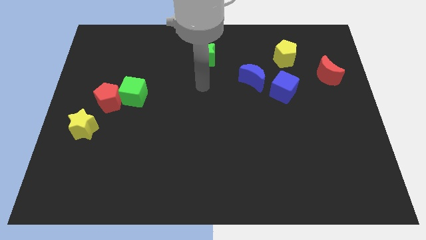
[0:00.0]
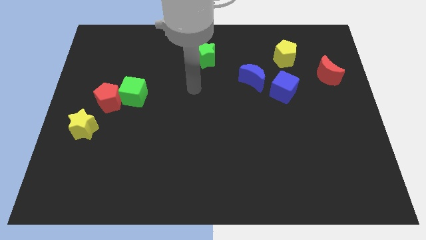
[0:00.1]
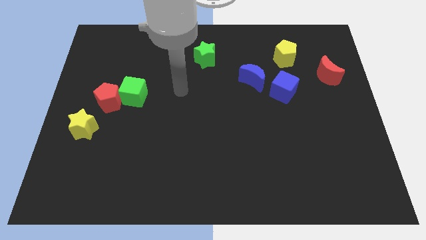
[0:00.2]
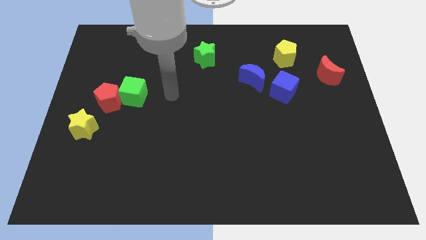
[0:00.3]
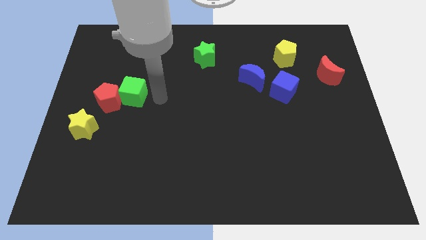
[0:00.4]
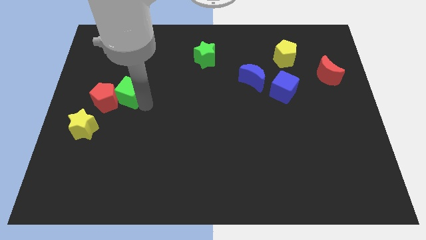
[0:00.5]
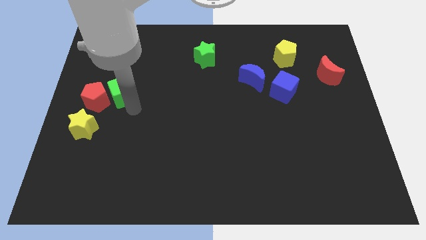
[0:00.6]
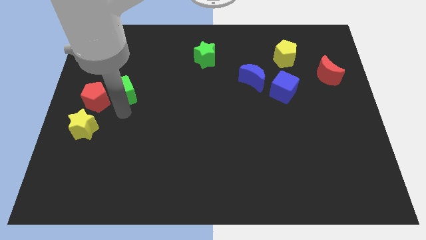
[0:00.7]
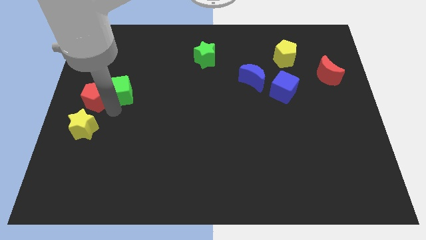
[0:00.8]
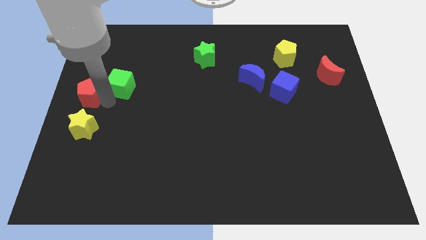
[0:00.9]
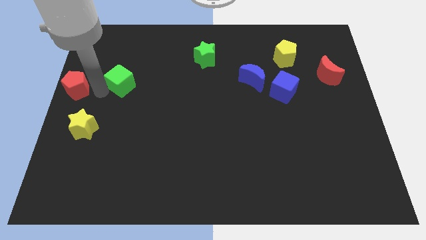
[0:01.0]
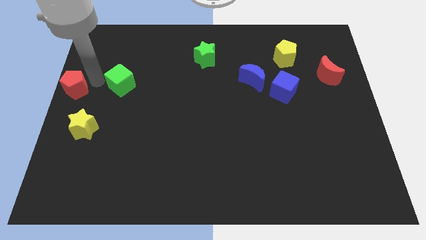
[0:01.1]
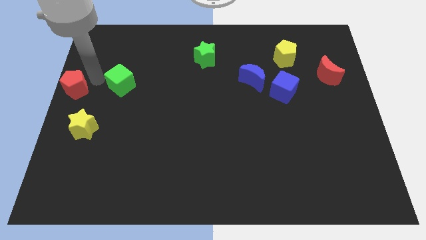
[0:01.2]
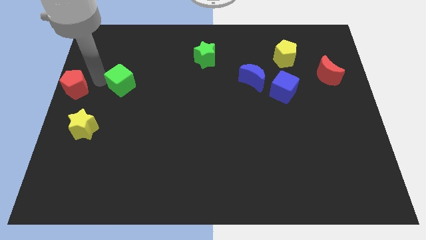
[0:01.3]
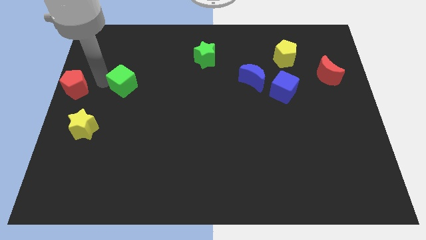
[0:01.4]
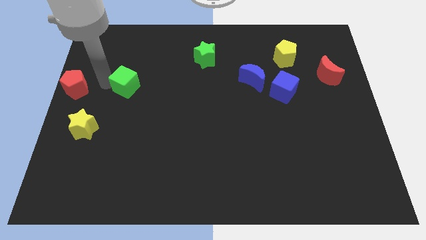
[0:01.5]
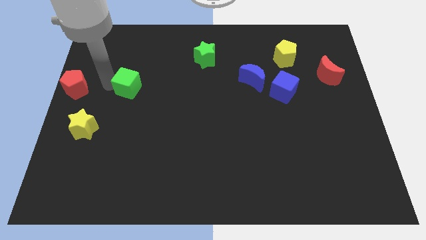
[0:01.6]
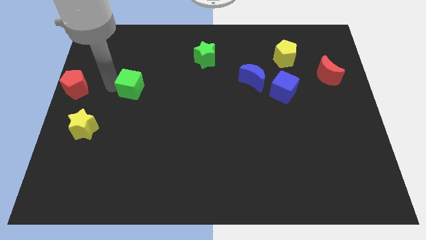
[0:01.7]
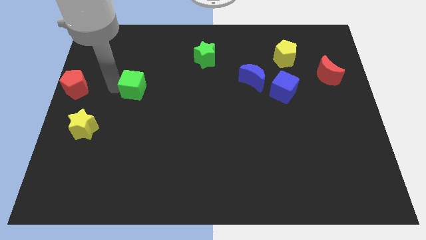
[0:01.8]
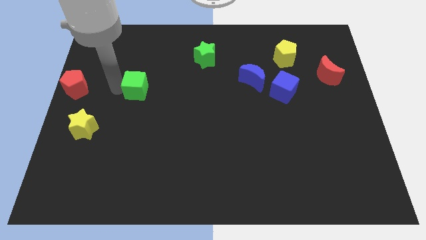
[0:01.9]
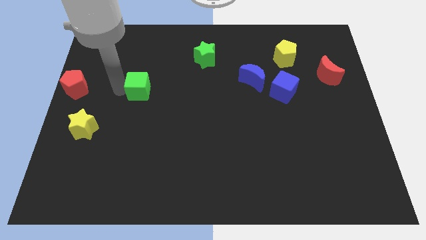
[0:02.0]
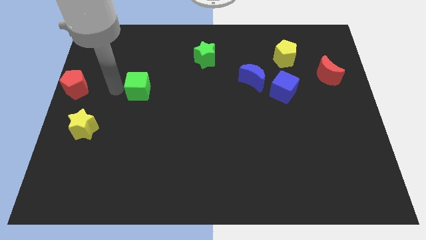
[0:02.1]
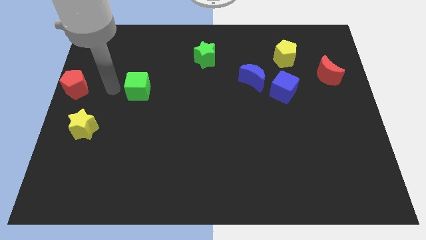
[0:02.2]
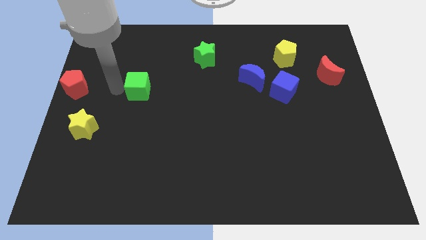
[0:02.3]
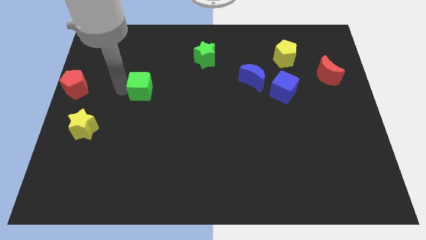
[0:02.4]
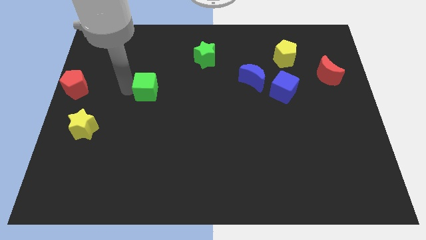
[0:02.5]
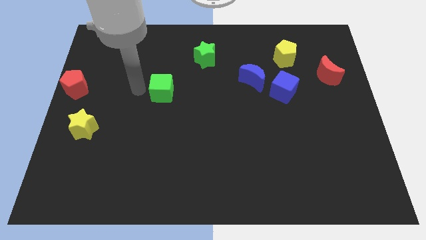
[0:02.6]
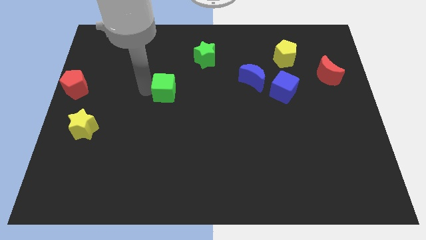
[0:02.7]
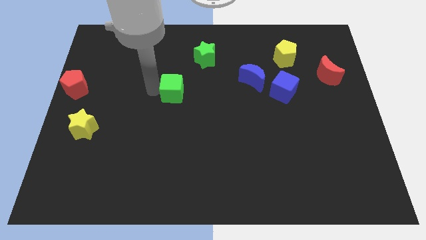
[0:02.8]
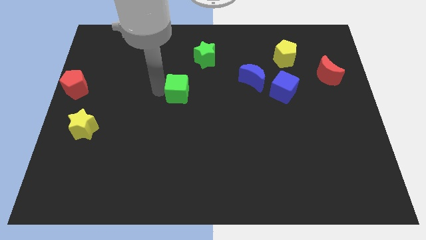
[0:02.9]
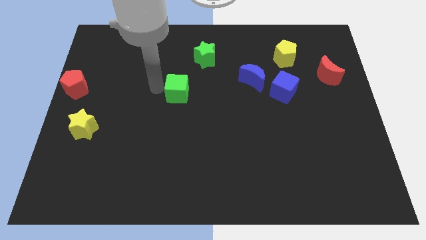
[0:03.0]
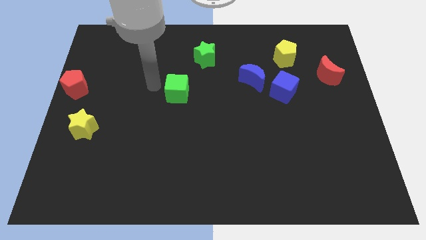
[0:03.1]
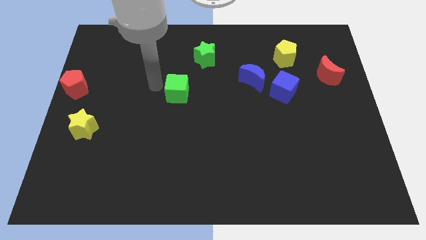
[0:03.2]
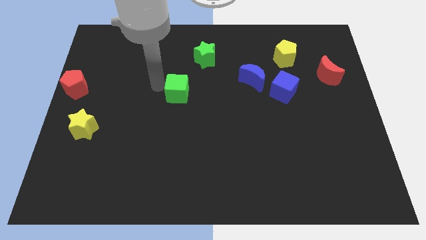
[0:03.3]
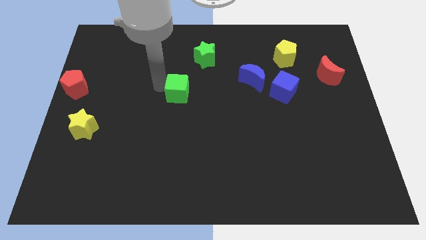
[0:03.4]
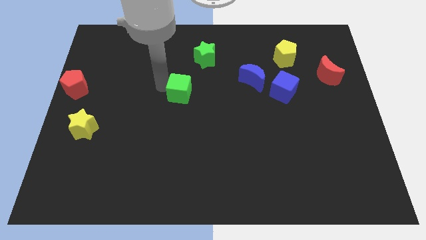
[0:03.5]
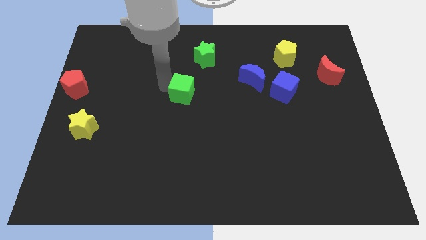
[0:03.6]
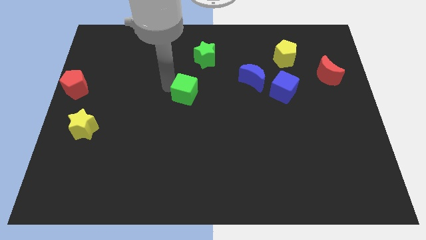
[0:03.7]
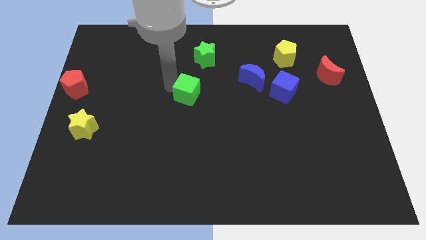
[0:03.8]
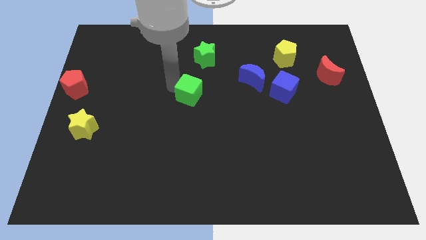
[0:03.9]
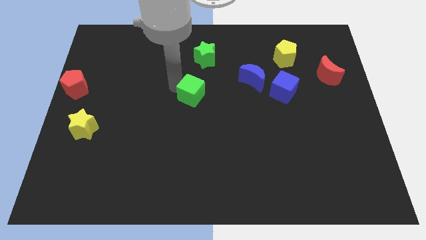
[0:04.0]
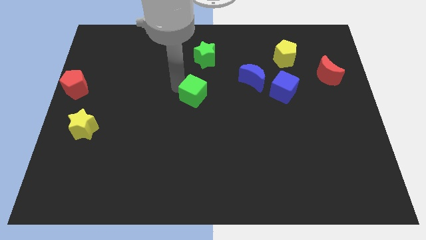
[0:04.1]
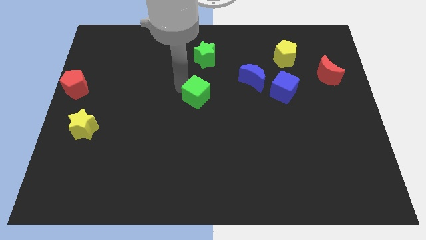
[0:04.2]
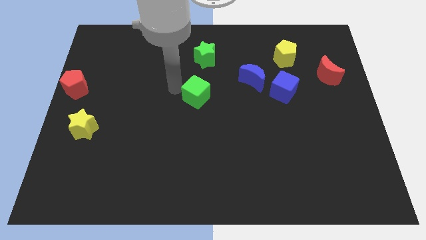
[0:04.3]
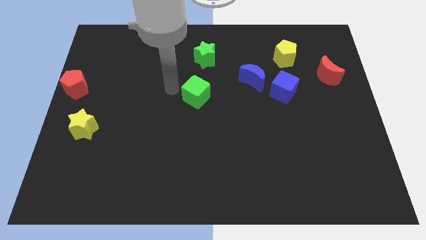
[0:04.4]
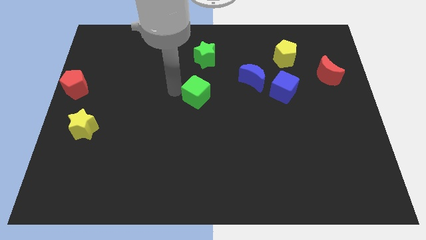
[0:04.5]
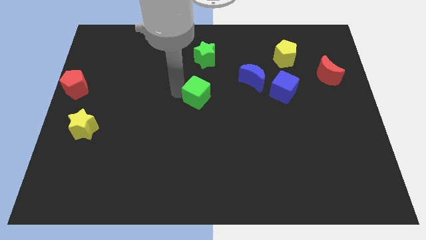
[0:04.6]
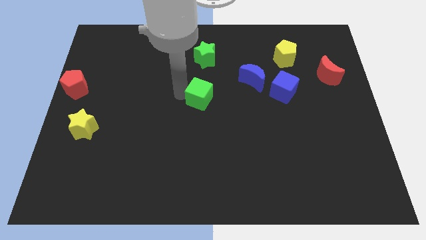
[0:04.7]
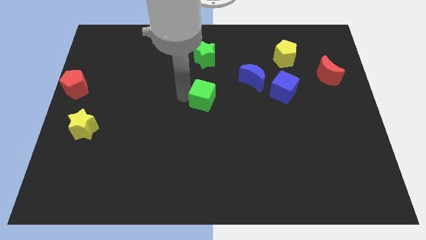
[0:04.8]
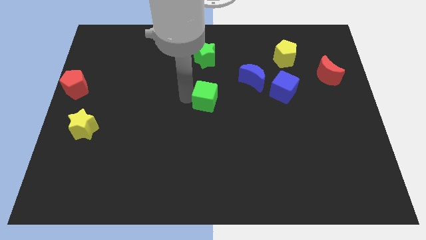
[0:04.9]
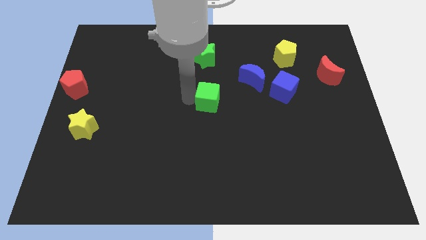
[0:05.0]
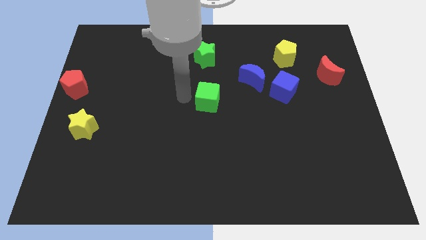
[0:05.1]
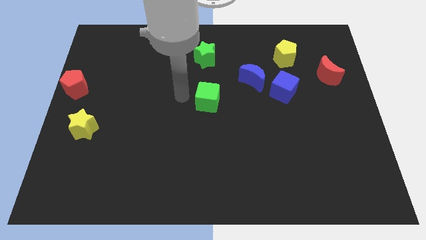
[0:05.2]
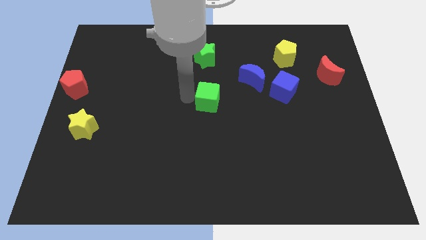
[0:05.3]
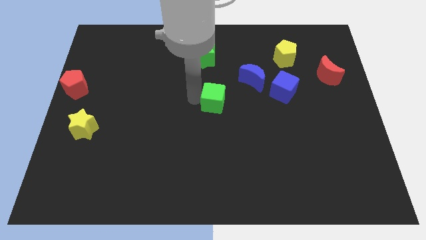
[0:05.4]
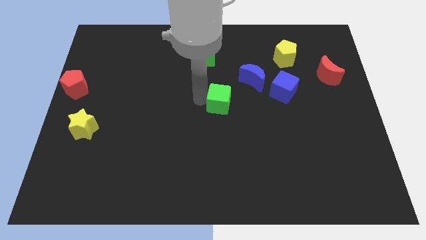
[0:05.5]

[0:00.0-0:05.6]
push the green cube to the right

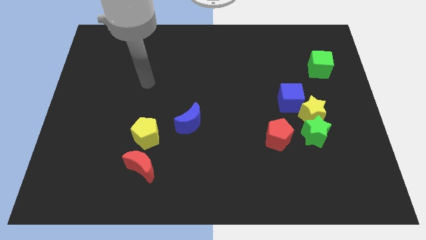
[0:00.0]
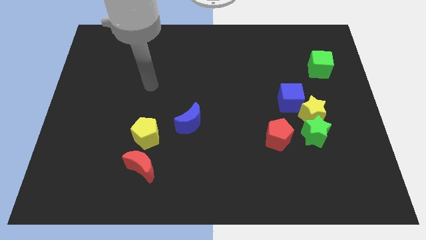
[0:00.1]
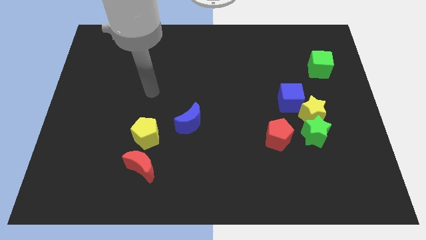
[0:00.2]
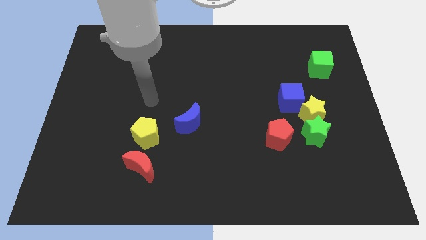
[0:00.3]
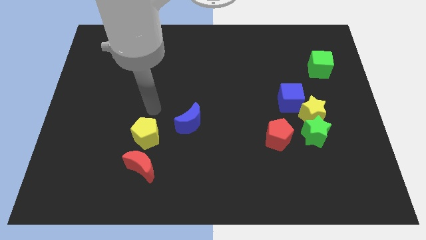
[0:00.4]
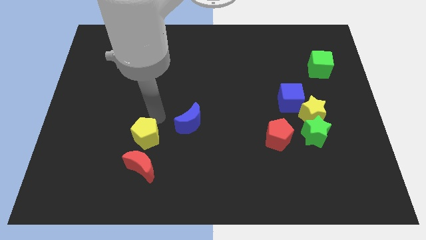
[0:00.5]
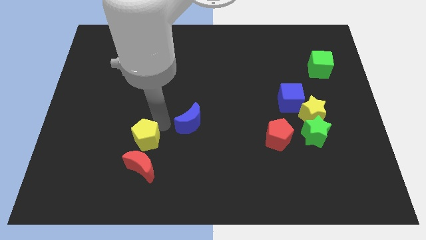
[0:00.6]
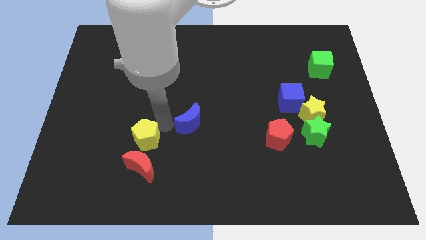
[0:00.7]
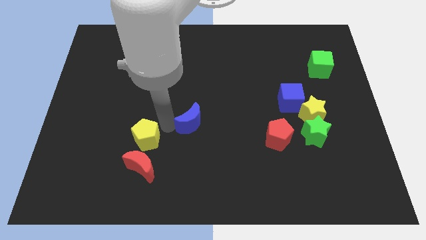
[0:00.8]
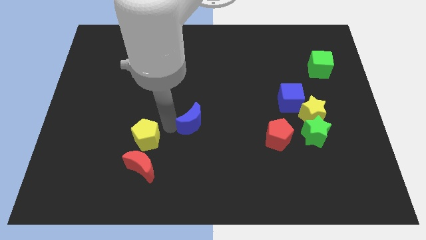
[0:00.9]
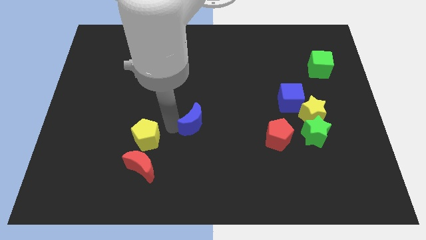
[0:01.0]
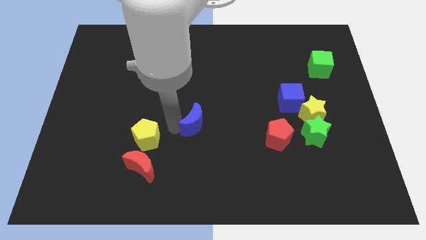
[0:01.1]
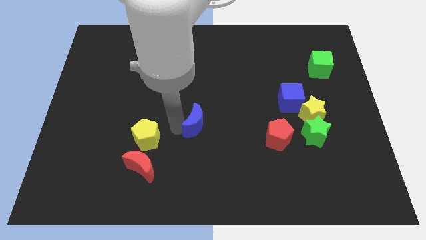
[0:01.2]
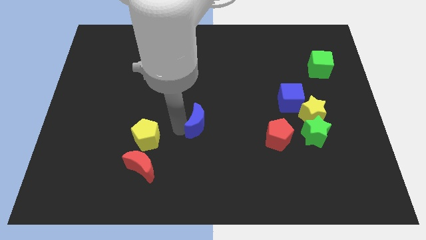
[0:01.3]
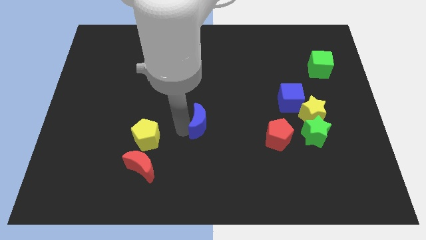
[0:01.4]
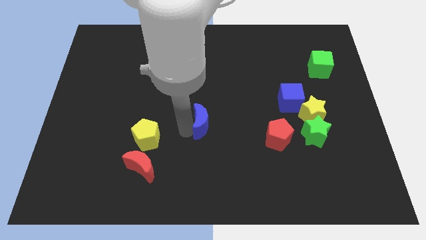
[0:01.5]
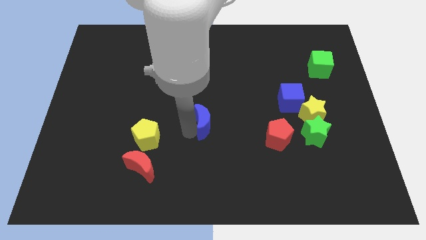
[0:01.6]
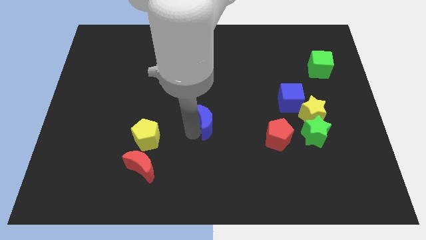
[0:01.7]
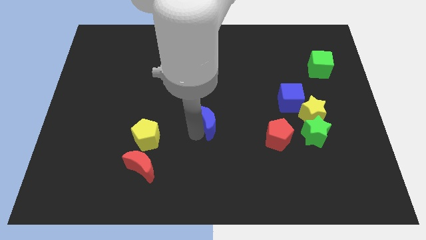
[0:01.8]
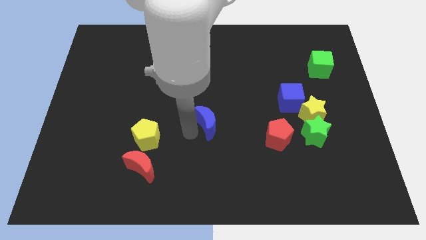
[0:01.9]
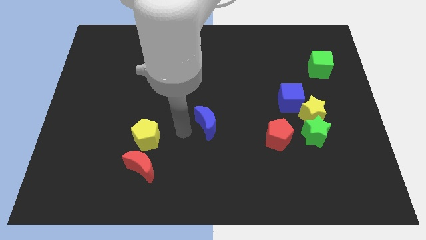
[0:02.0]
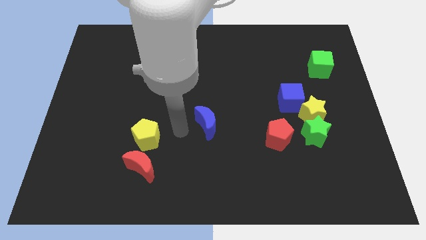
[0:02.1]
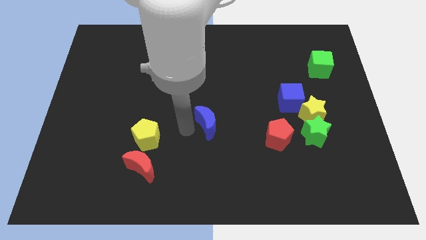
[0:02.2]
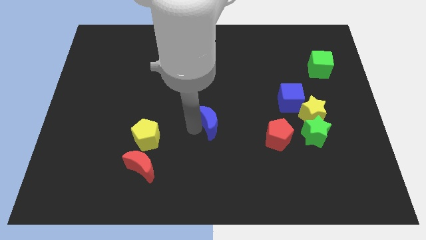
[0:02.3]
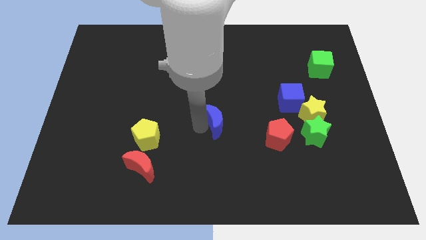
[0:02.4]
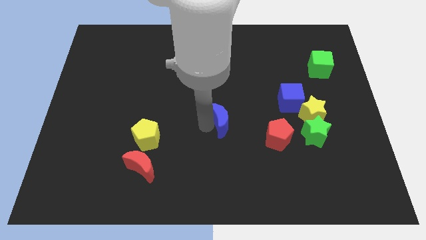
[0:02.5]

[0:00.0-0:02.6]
slide the blue moon somewhat to the right
